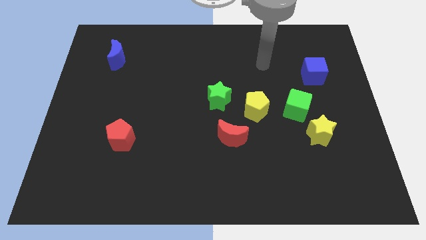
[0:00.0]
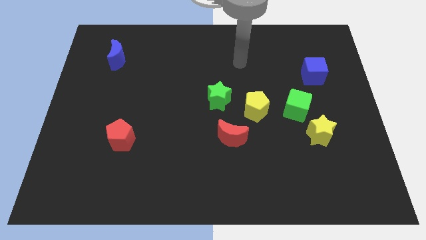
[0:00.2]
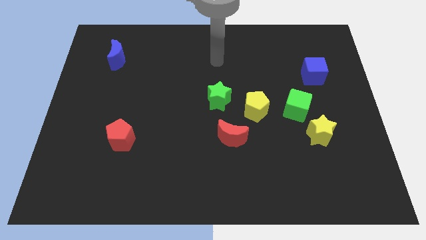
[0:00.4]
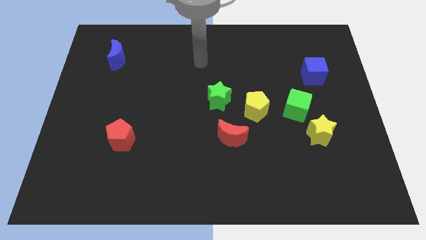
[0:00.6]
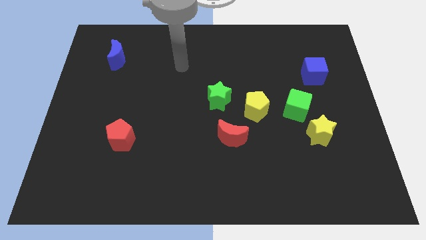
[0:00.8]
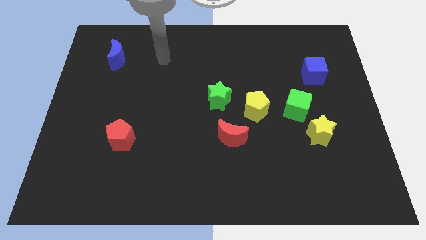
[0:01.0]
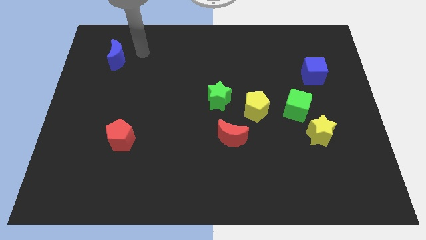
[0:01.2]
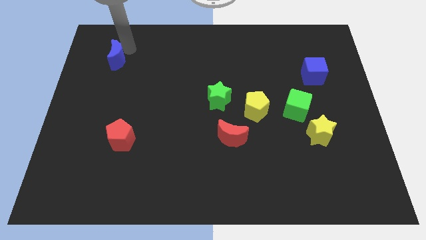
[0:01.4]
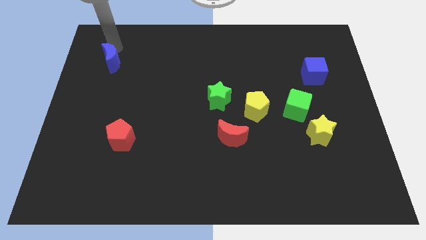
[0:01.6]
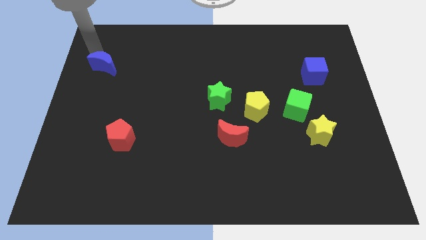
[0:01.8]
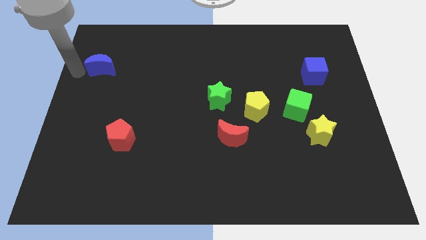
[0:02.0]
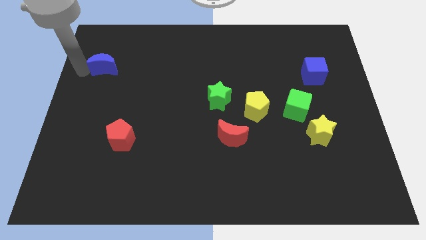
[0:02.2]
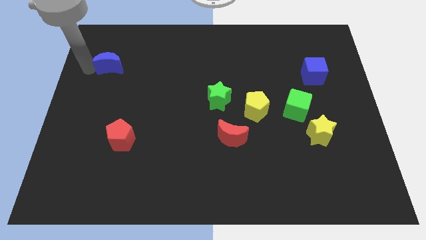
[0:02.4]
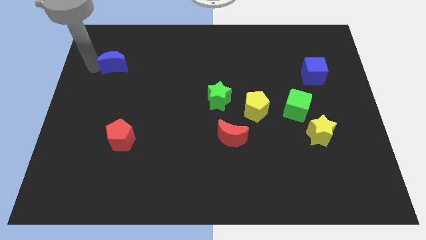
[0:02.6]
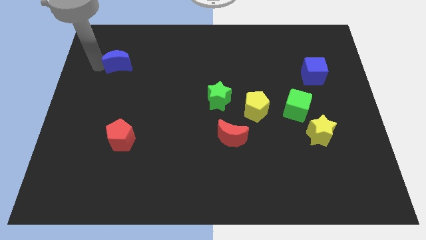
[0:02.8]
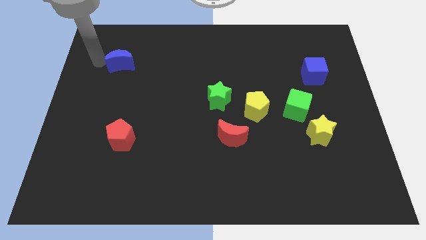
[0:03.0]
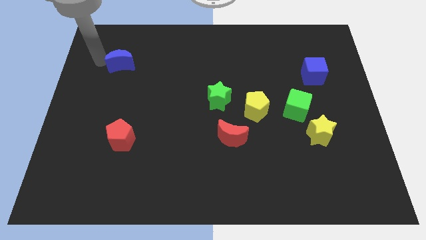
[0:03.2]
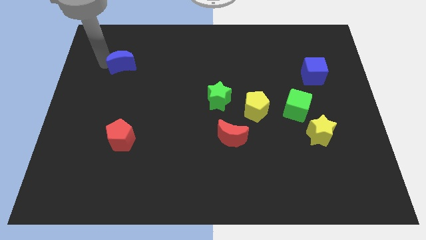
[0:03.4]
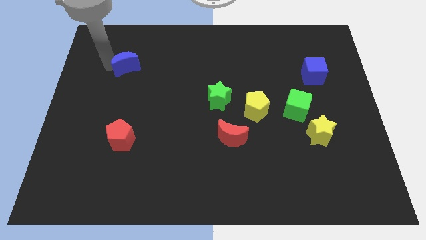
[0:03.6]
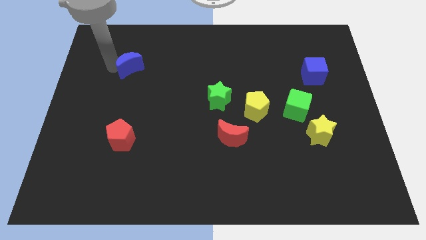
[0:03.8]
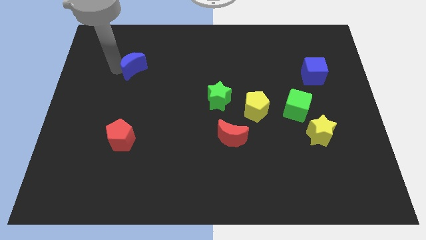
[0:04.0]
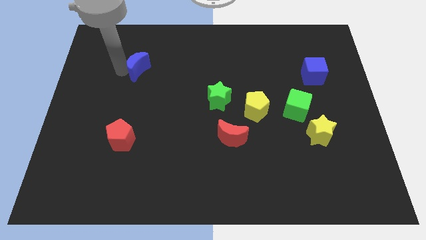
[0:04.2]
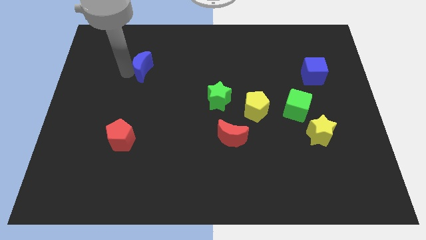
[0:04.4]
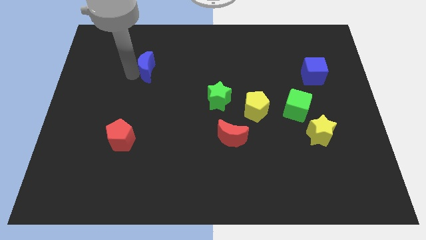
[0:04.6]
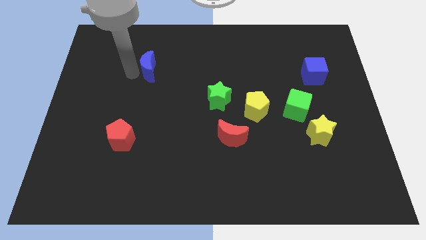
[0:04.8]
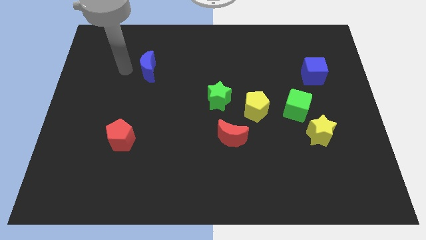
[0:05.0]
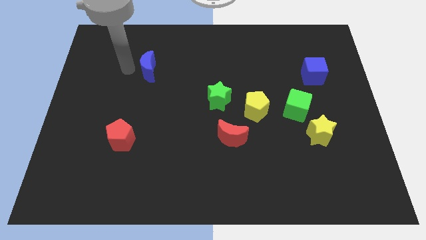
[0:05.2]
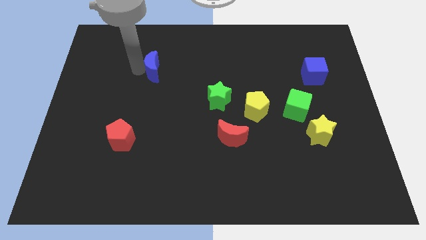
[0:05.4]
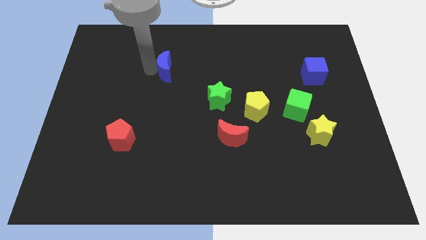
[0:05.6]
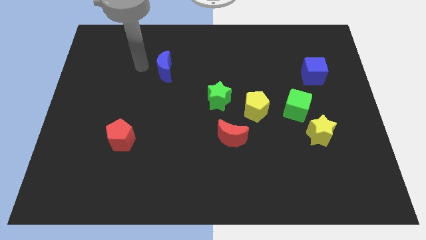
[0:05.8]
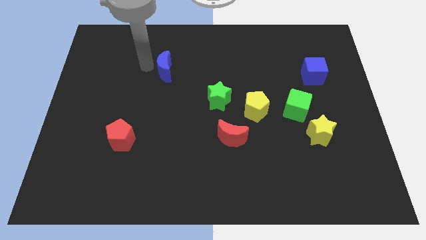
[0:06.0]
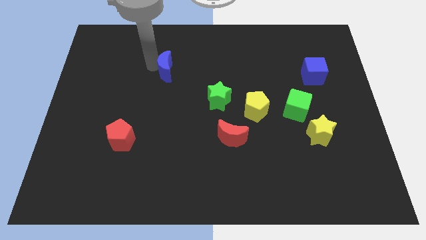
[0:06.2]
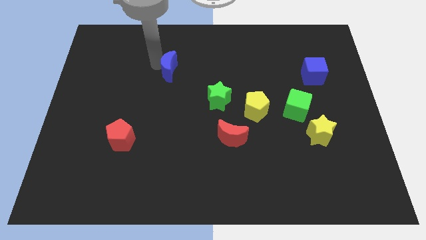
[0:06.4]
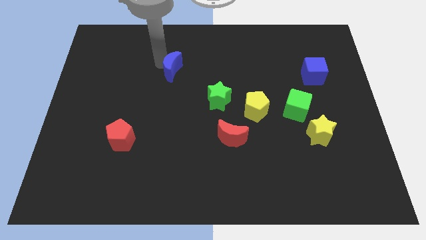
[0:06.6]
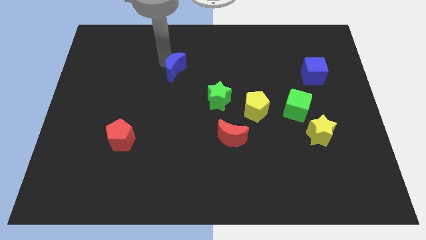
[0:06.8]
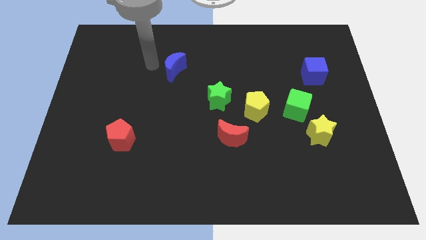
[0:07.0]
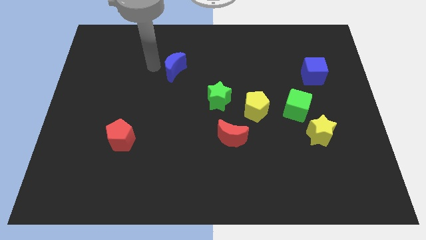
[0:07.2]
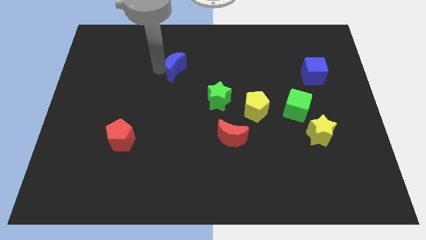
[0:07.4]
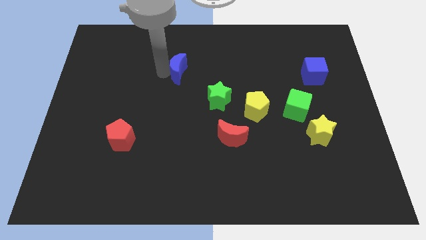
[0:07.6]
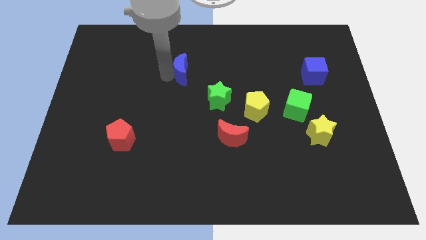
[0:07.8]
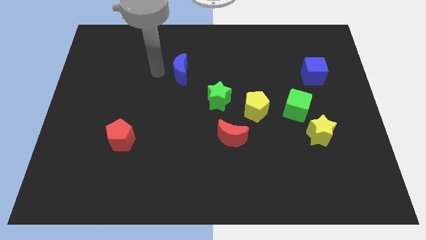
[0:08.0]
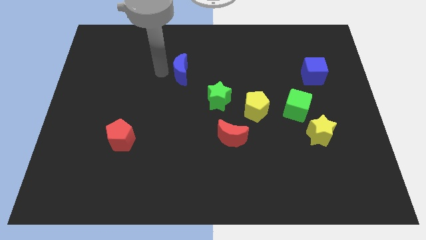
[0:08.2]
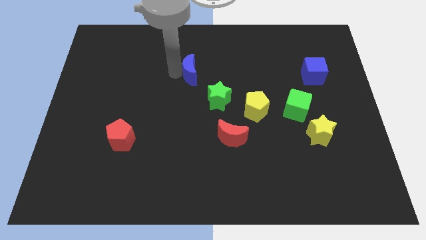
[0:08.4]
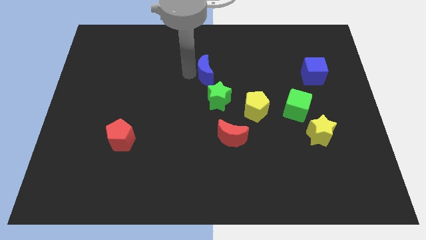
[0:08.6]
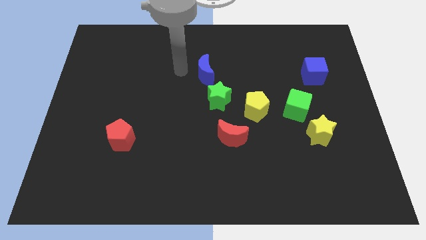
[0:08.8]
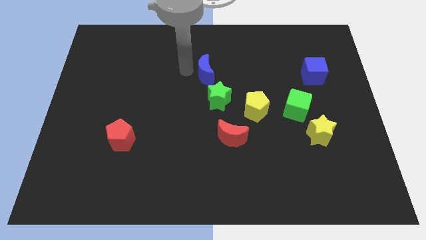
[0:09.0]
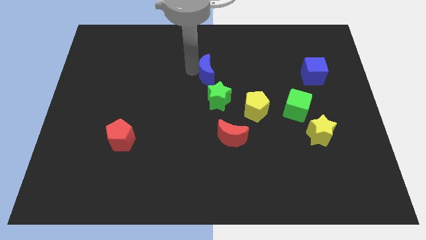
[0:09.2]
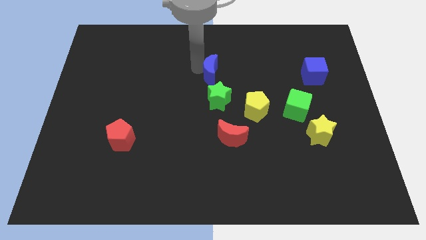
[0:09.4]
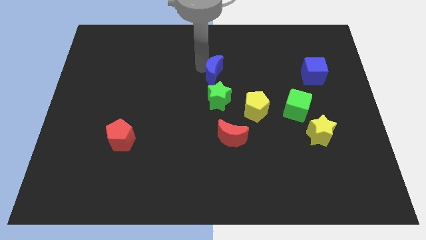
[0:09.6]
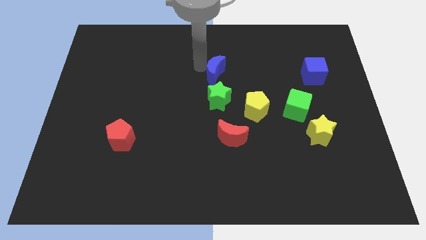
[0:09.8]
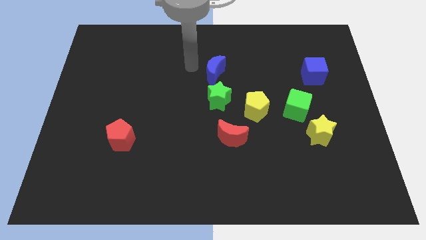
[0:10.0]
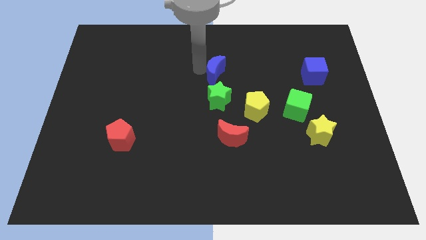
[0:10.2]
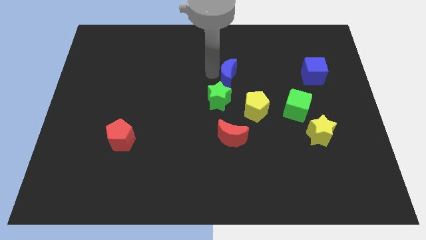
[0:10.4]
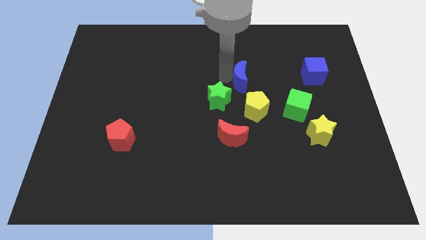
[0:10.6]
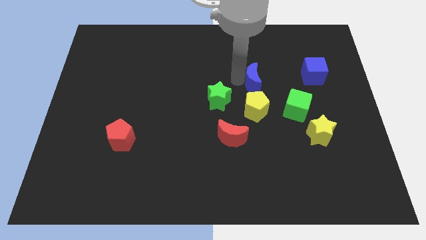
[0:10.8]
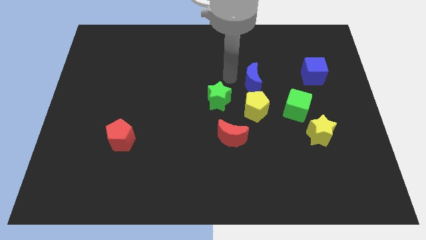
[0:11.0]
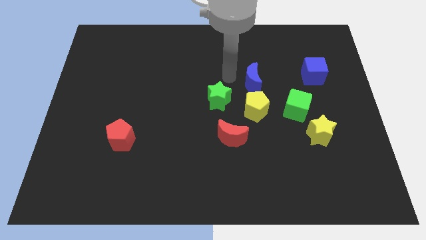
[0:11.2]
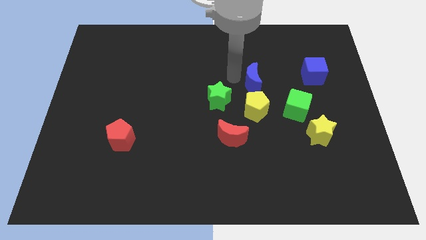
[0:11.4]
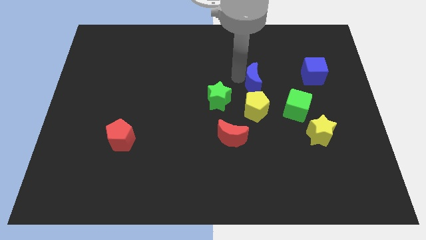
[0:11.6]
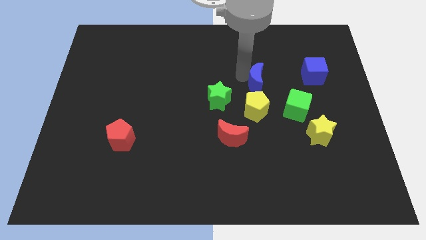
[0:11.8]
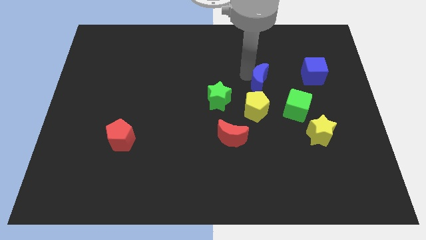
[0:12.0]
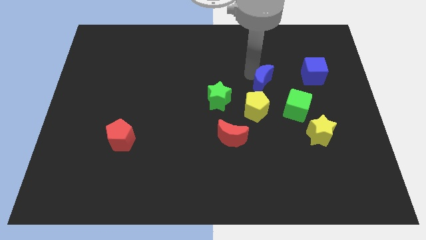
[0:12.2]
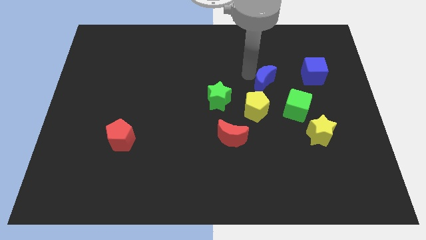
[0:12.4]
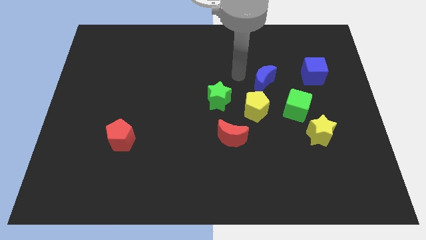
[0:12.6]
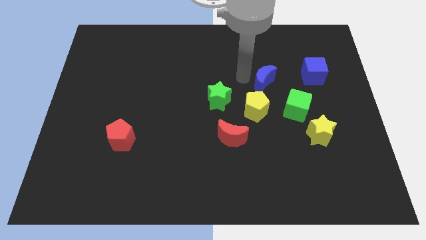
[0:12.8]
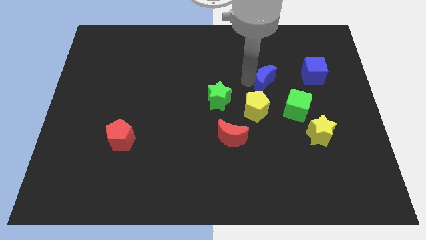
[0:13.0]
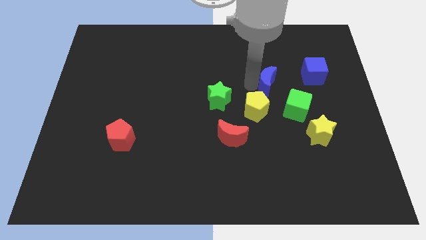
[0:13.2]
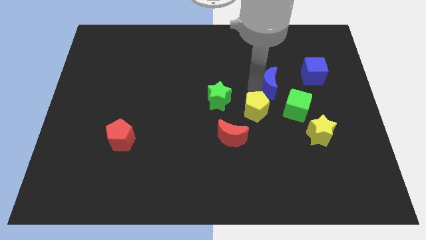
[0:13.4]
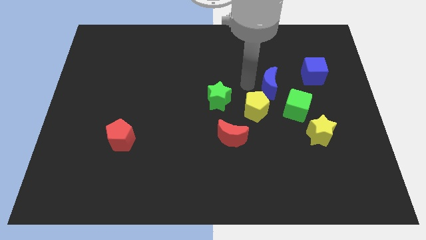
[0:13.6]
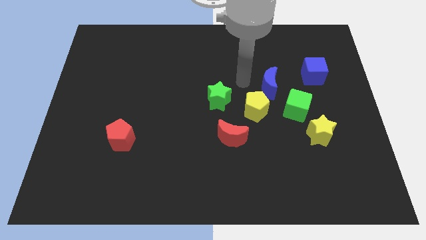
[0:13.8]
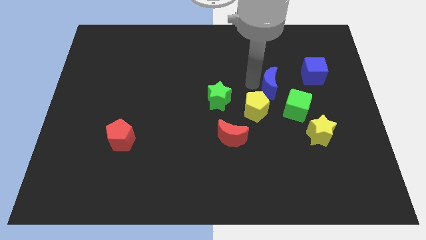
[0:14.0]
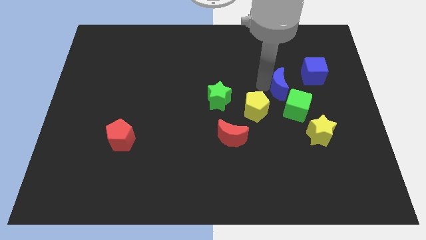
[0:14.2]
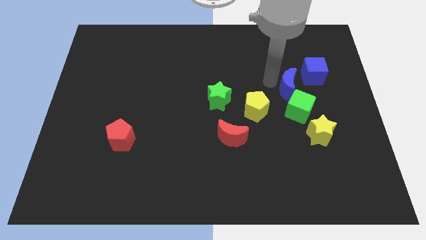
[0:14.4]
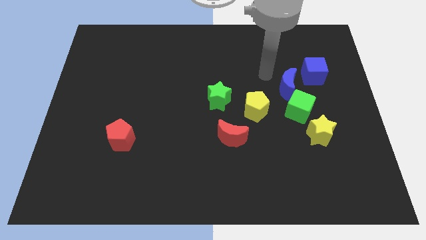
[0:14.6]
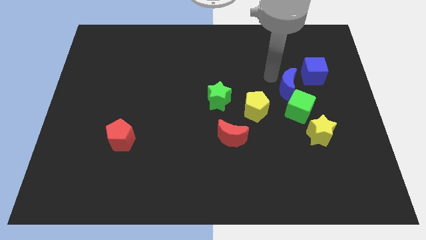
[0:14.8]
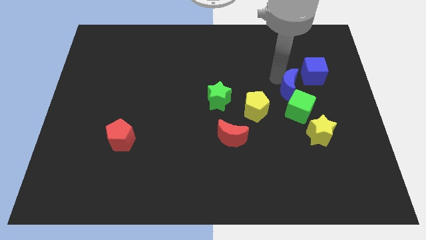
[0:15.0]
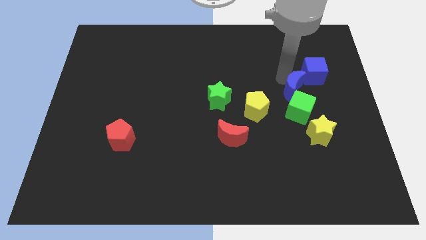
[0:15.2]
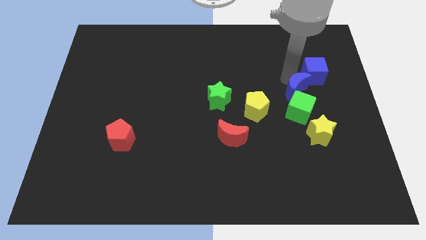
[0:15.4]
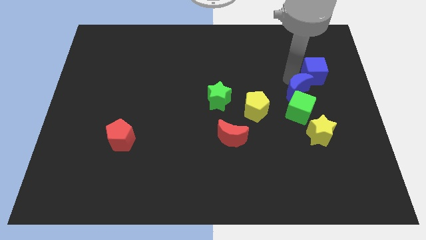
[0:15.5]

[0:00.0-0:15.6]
put the blue moon to the bottom of the blue cube

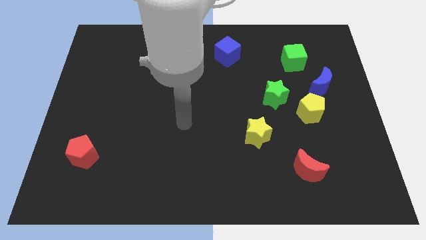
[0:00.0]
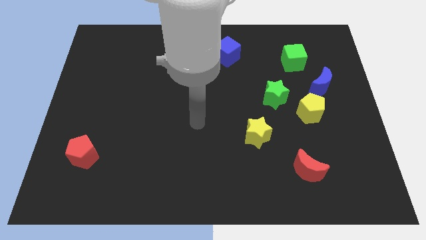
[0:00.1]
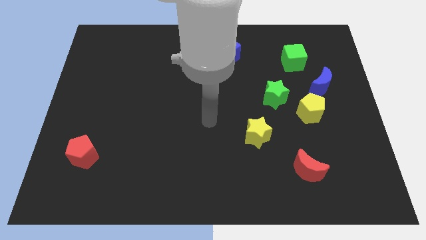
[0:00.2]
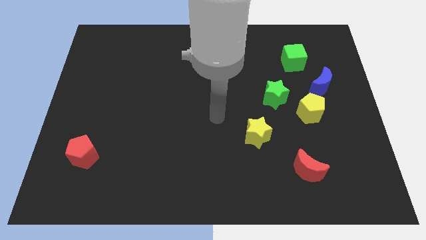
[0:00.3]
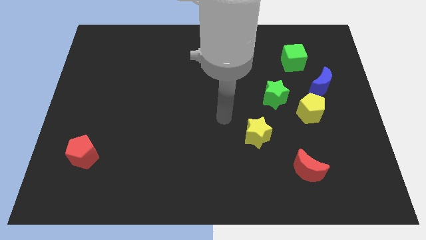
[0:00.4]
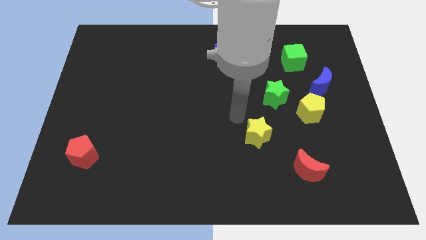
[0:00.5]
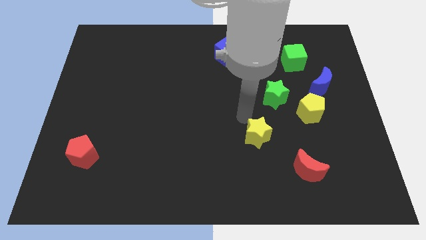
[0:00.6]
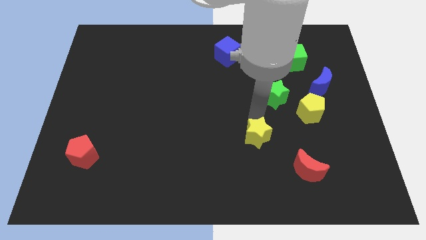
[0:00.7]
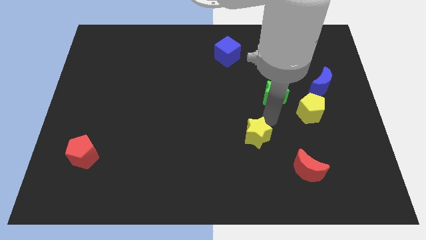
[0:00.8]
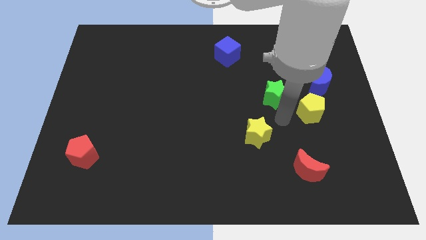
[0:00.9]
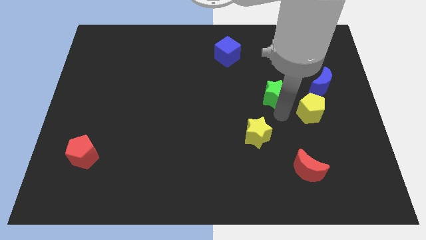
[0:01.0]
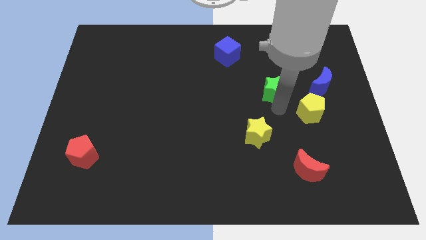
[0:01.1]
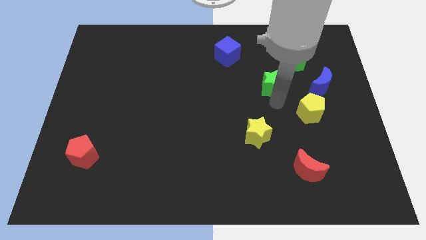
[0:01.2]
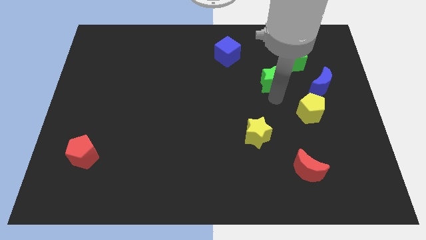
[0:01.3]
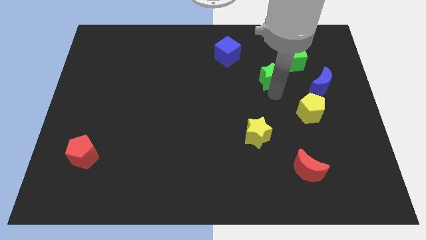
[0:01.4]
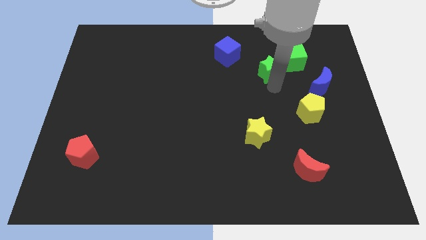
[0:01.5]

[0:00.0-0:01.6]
push the green star just left of the green cube
